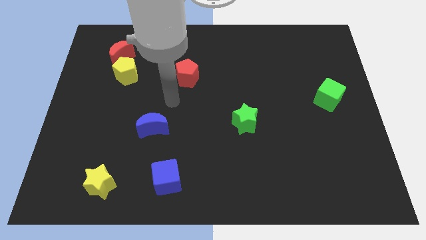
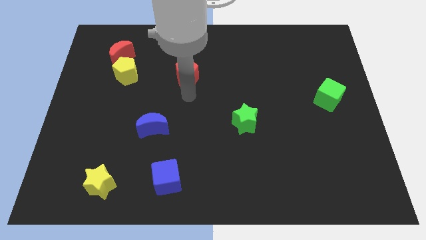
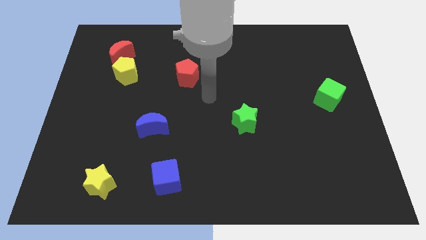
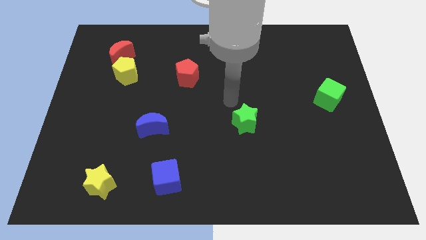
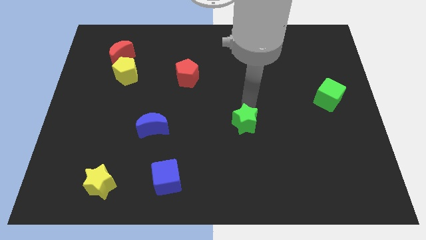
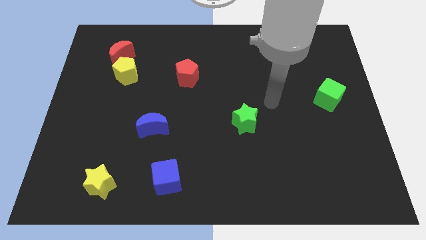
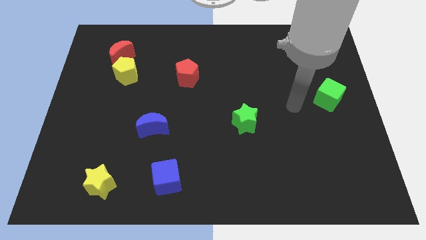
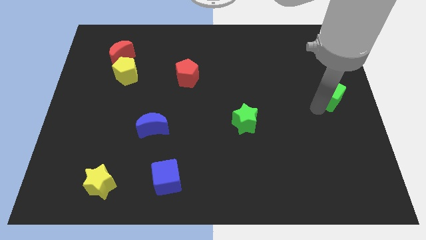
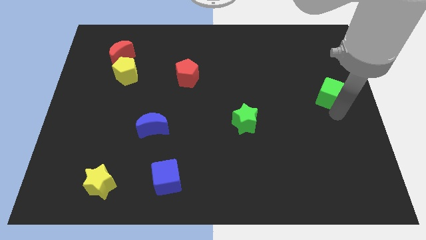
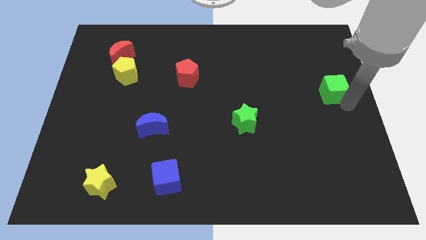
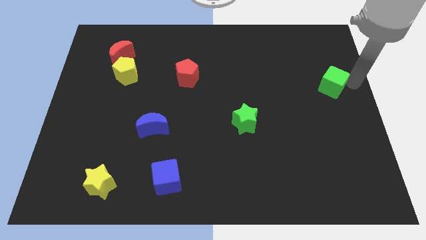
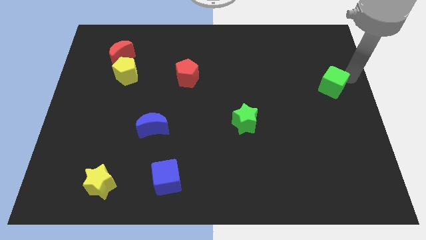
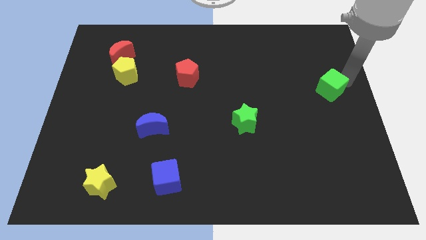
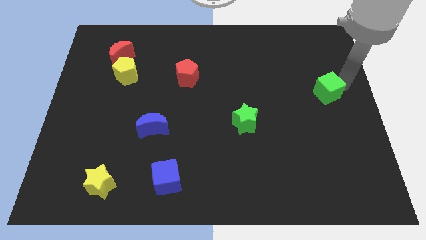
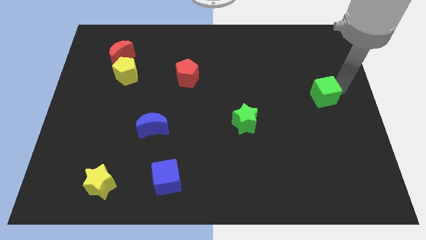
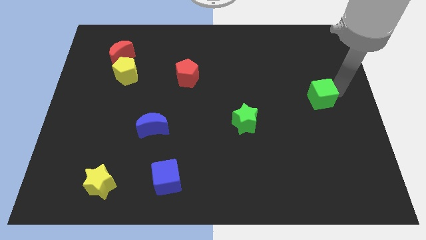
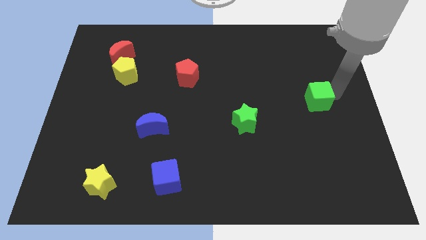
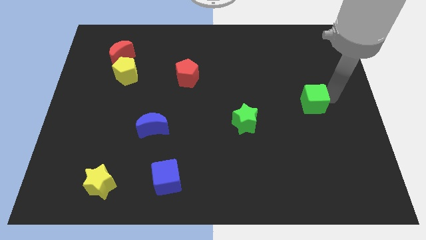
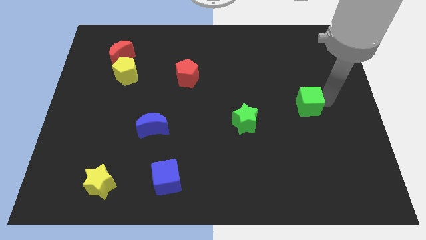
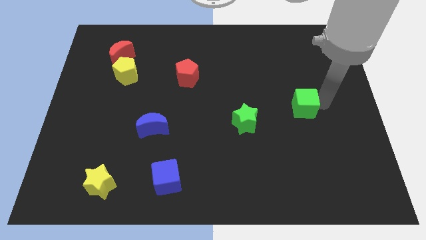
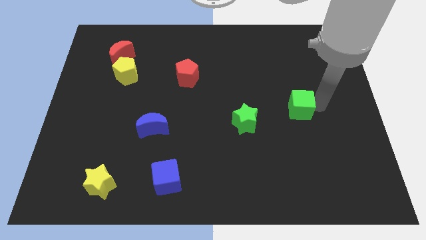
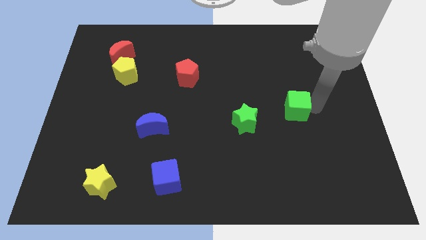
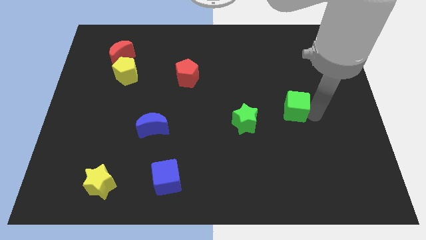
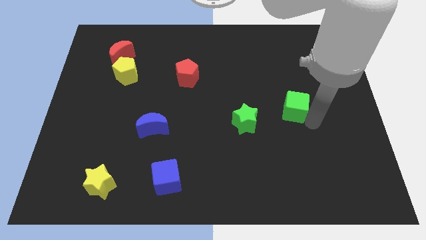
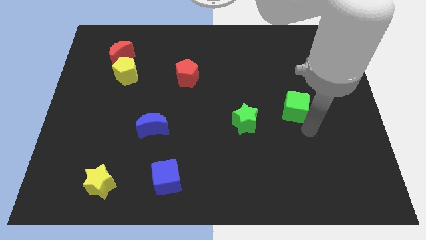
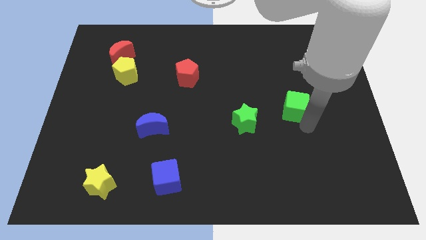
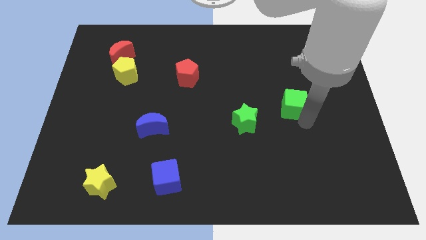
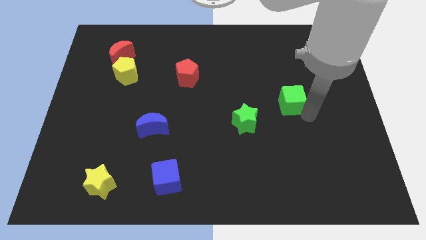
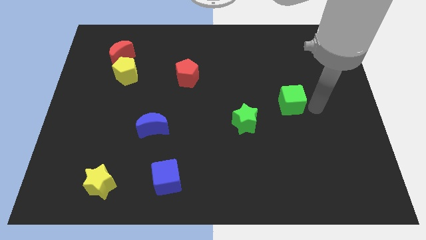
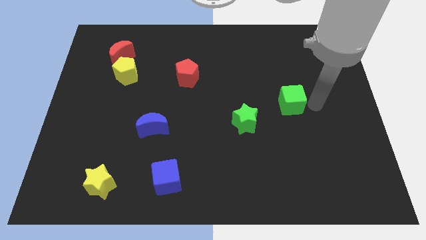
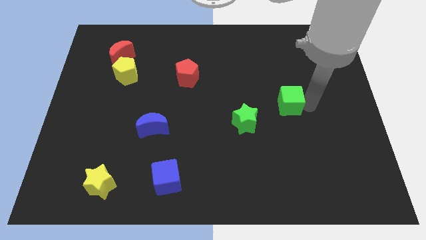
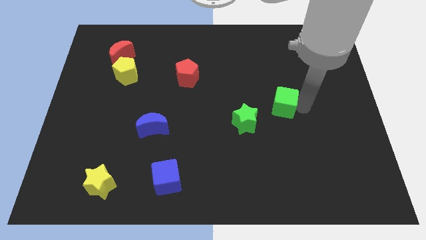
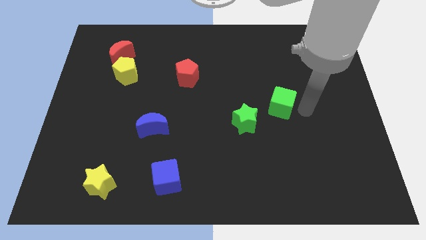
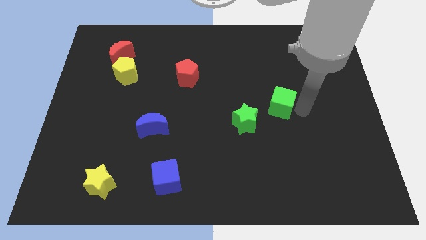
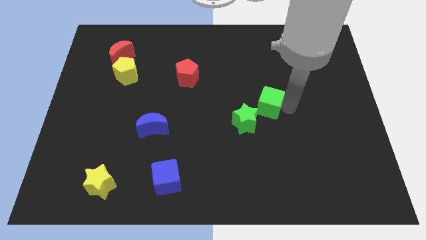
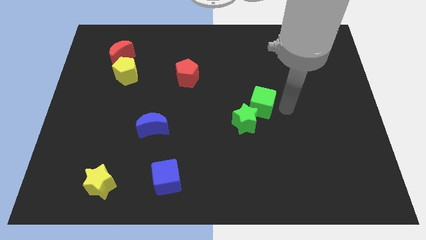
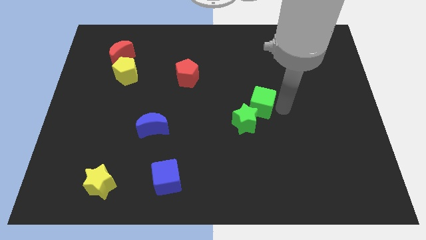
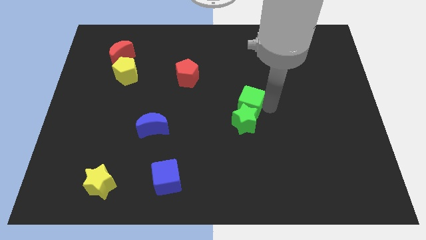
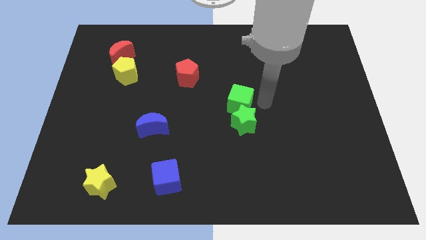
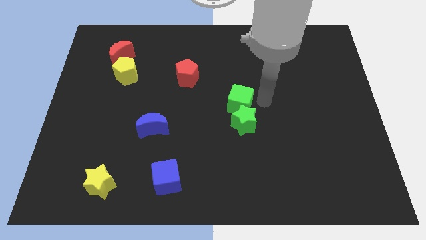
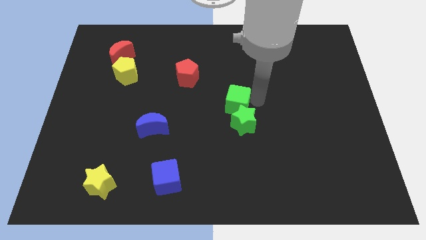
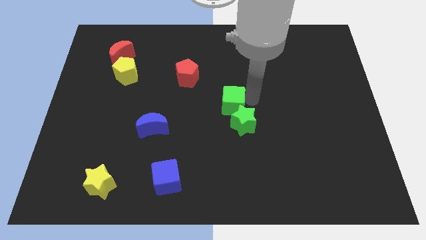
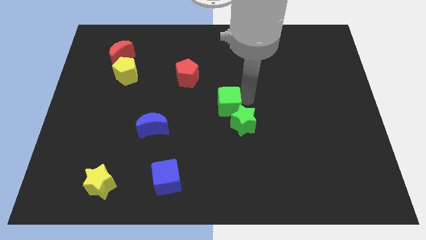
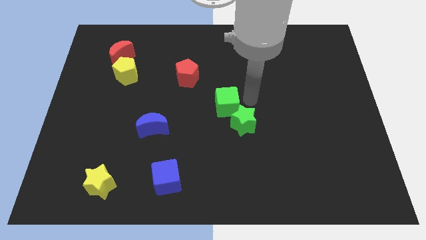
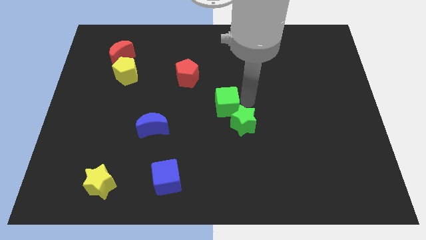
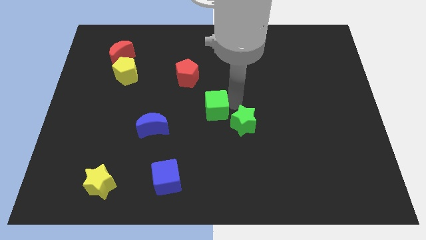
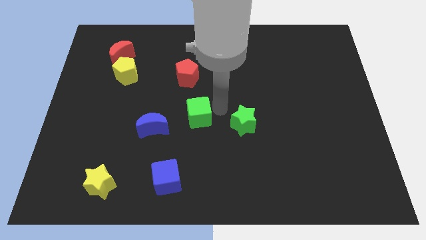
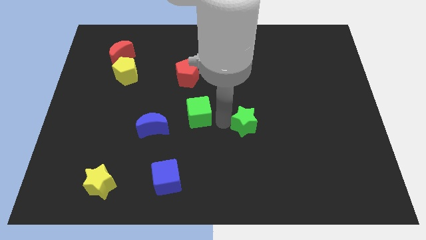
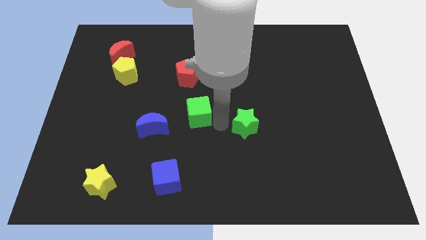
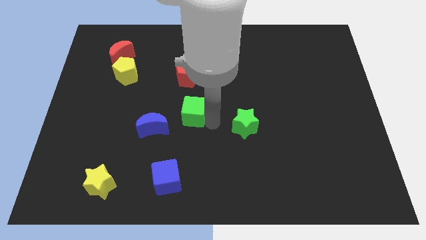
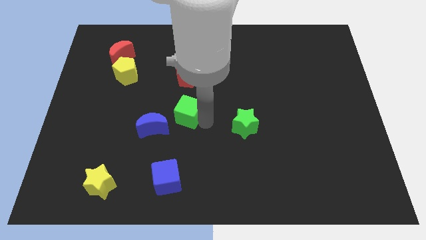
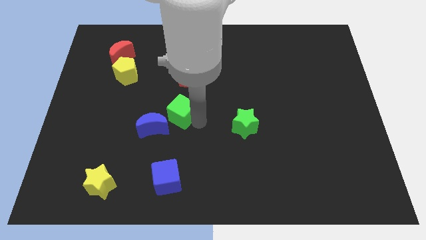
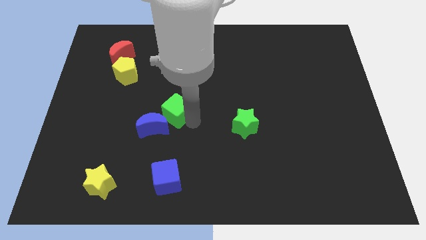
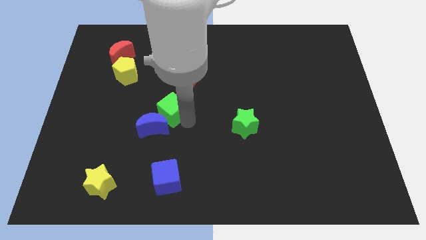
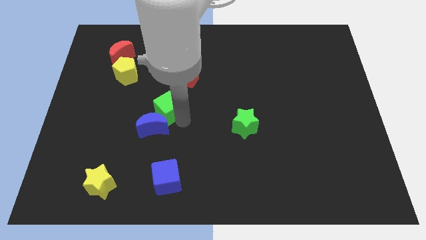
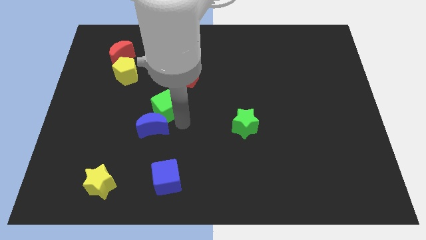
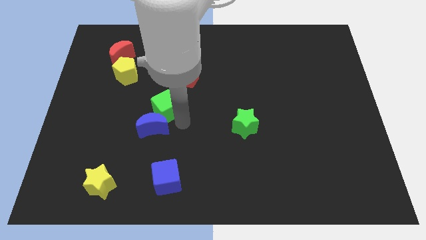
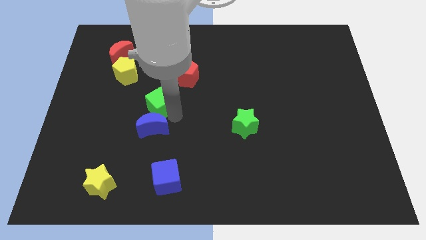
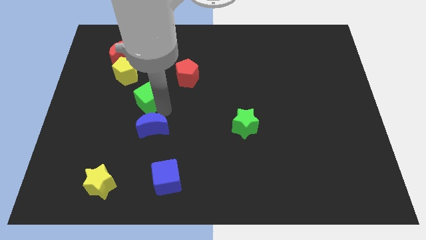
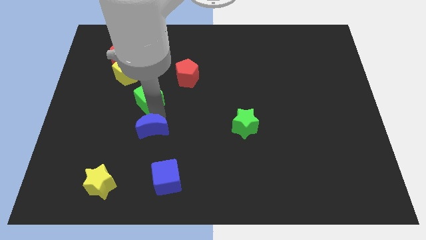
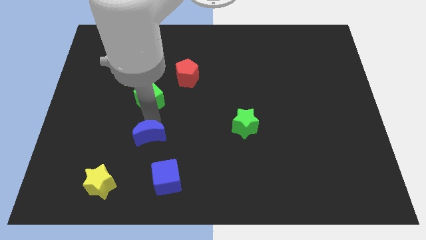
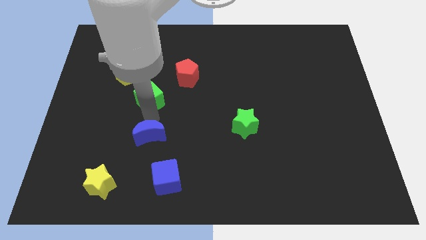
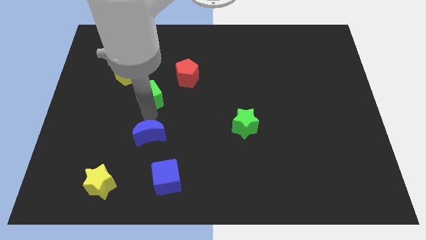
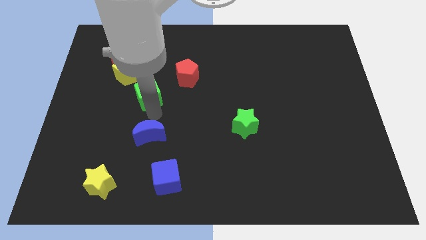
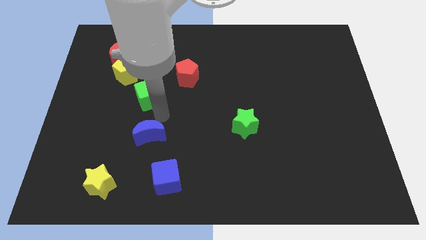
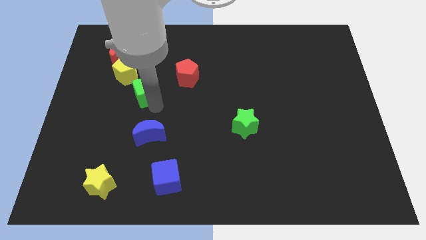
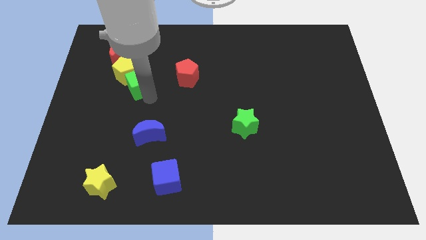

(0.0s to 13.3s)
move the green cube next to the yellow pentagon

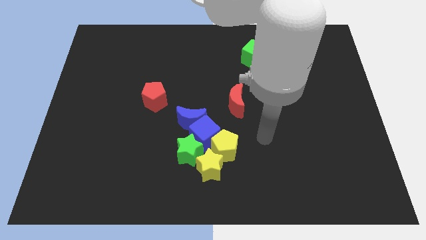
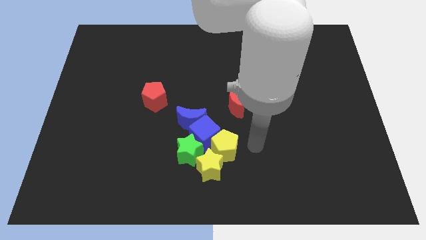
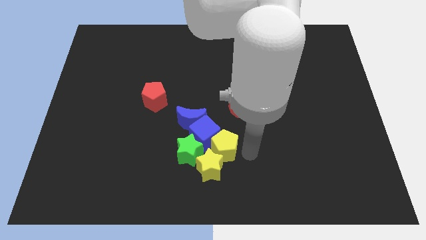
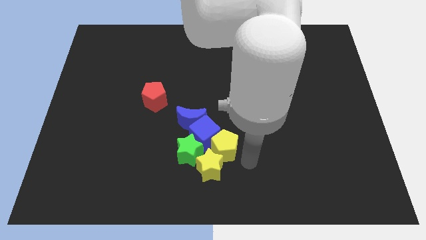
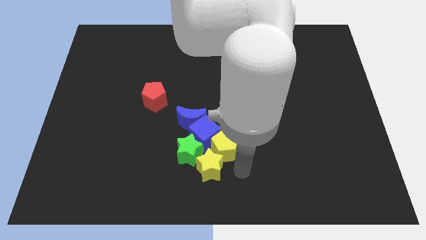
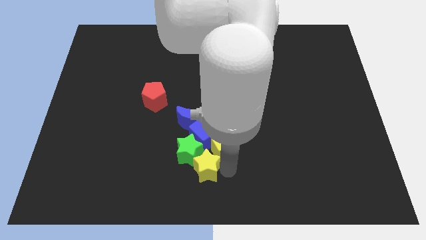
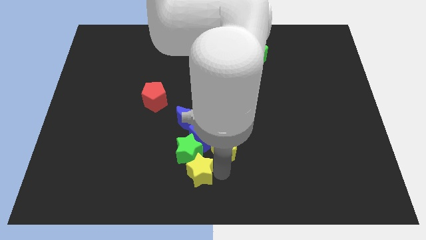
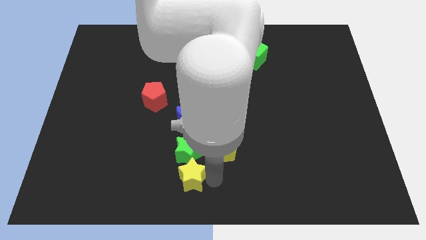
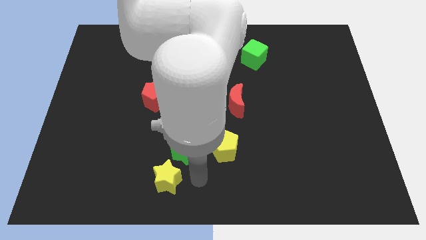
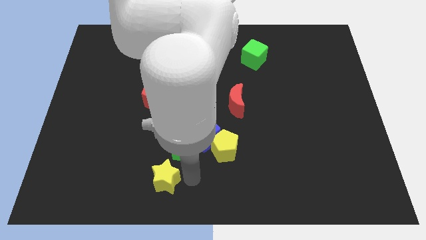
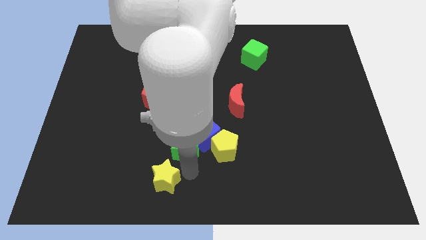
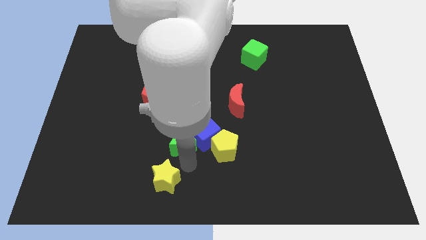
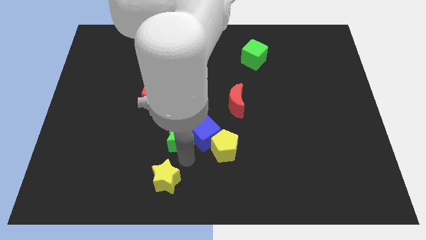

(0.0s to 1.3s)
slide the green star to the blue moon

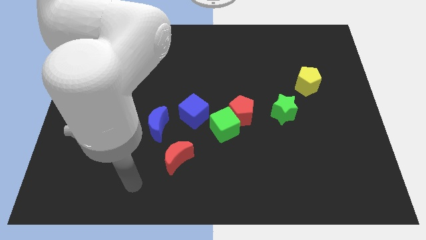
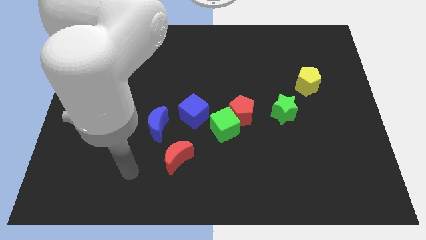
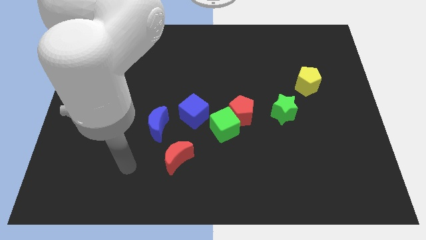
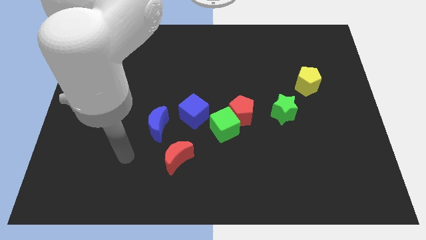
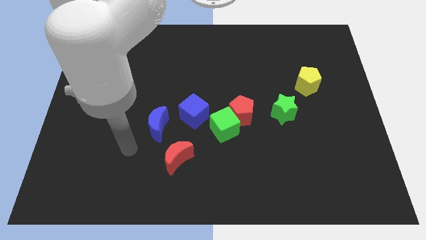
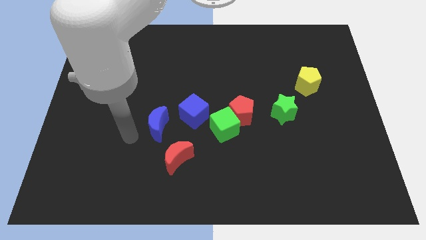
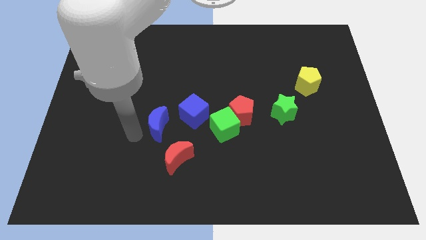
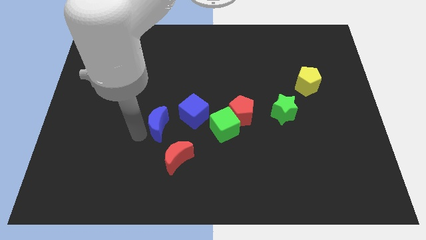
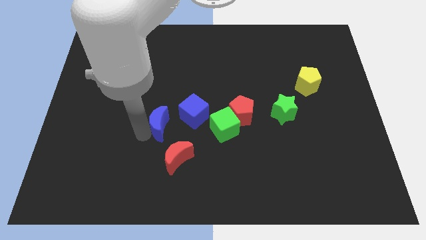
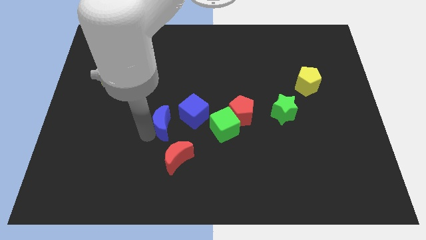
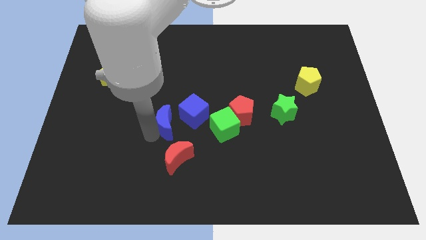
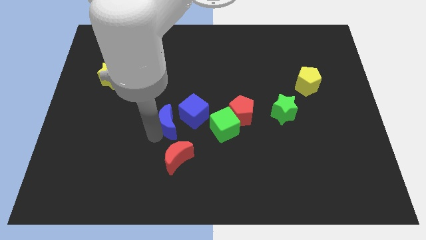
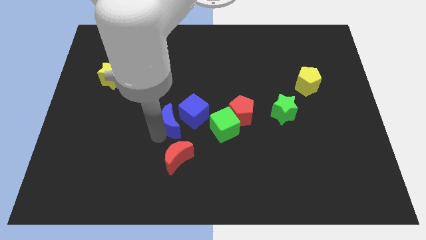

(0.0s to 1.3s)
put the blue moon next to the blue cube
